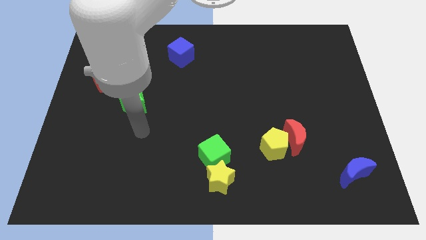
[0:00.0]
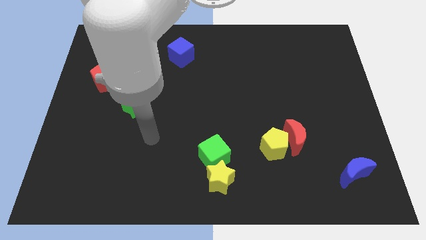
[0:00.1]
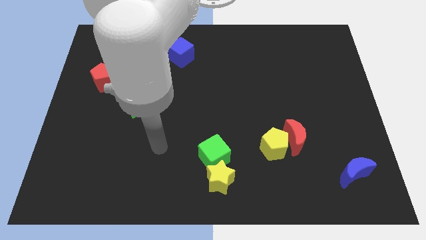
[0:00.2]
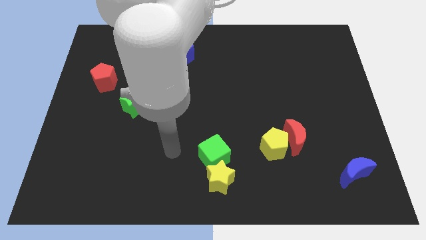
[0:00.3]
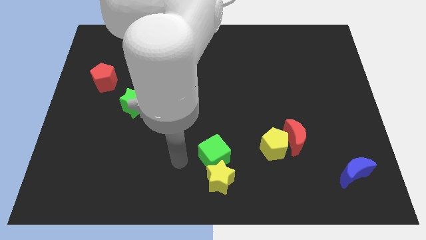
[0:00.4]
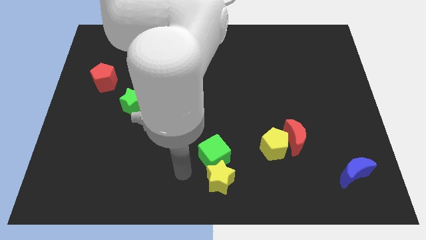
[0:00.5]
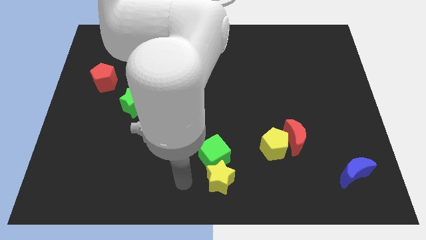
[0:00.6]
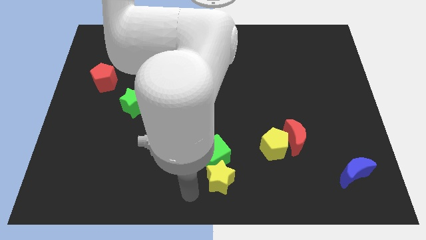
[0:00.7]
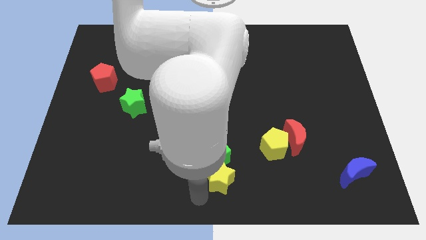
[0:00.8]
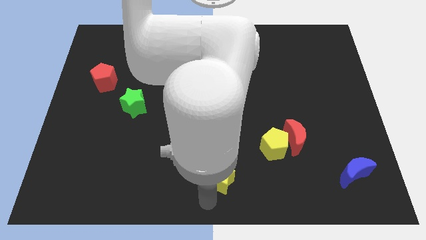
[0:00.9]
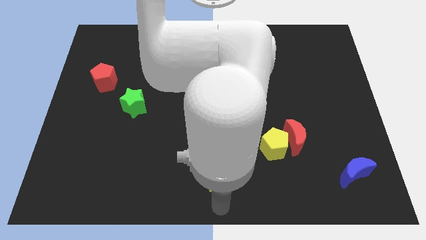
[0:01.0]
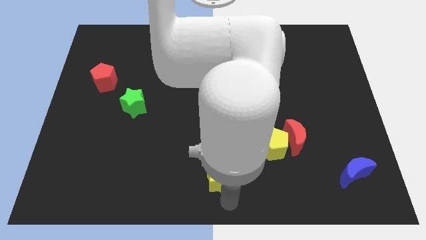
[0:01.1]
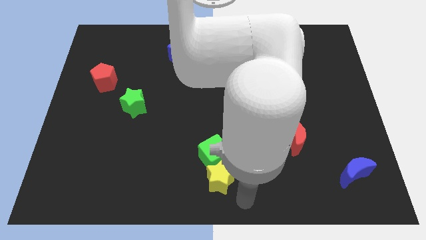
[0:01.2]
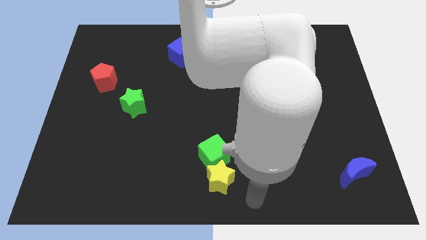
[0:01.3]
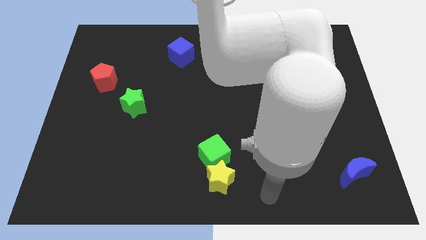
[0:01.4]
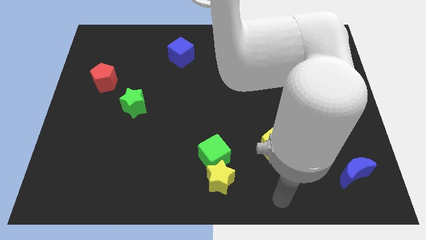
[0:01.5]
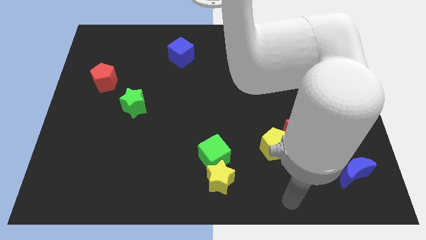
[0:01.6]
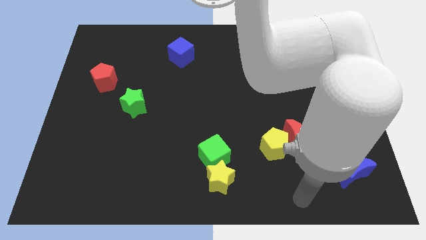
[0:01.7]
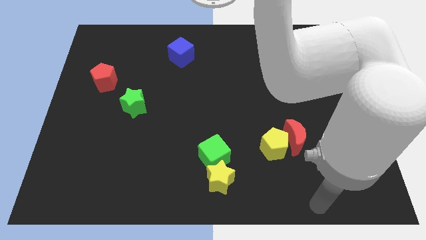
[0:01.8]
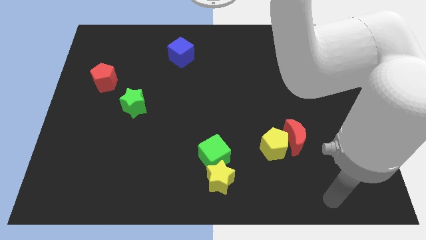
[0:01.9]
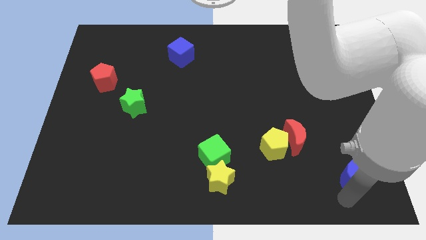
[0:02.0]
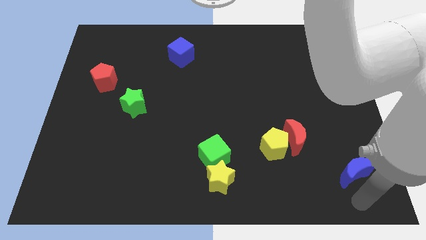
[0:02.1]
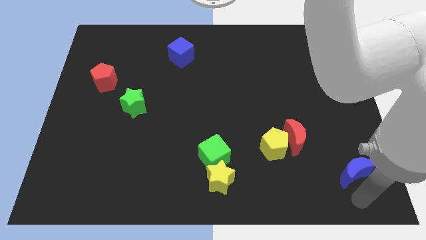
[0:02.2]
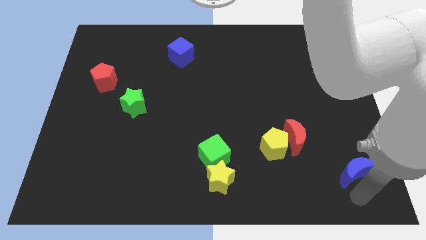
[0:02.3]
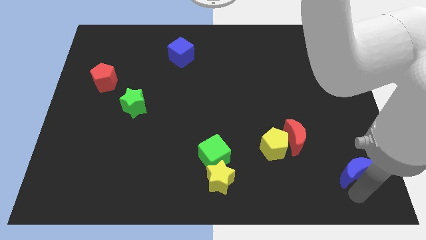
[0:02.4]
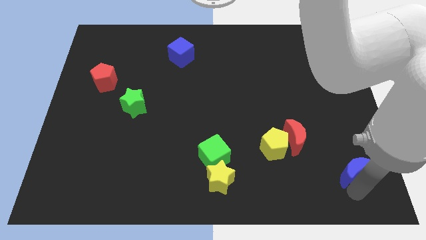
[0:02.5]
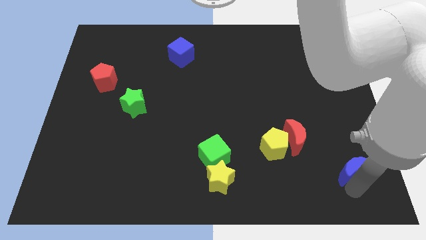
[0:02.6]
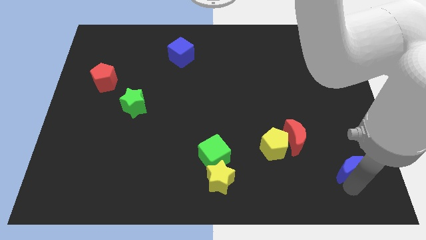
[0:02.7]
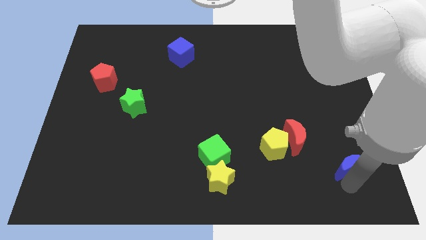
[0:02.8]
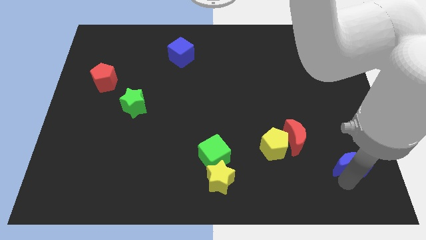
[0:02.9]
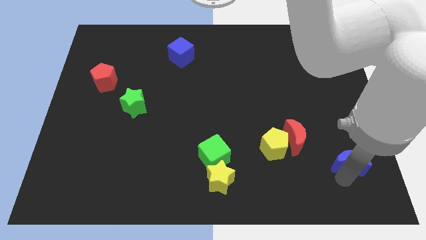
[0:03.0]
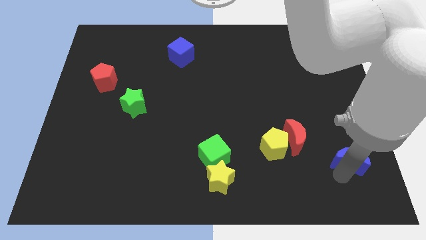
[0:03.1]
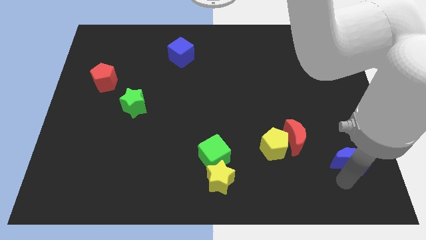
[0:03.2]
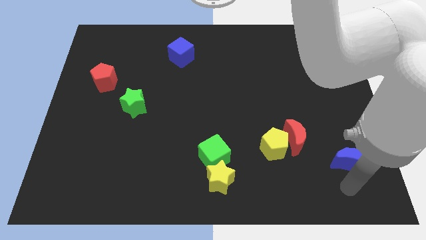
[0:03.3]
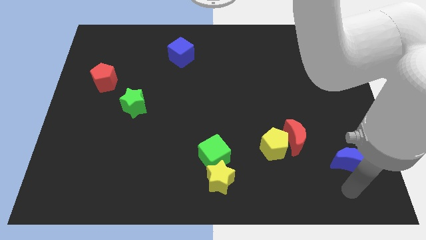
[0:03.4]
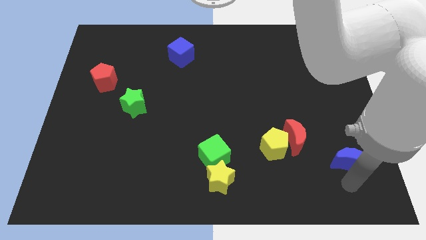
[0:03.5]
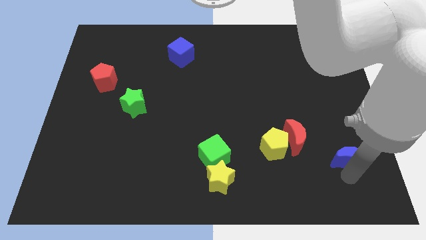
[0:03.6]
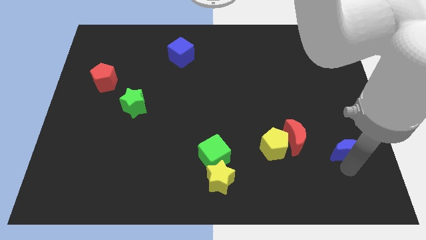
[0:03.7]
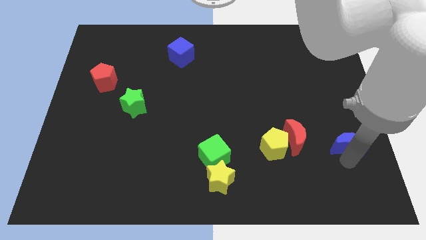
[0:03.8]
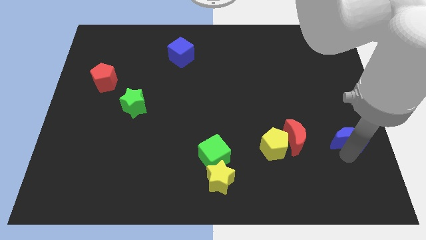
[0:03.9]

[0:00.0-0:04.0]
slide the blue moon a little upwards

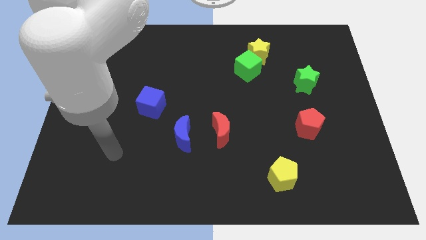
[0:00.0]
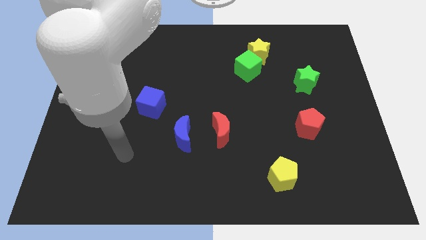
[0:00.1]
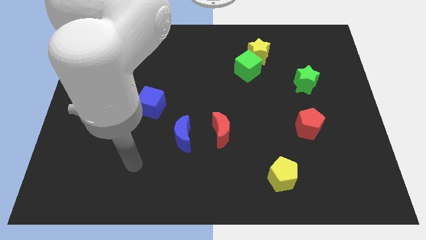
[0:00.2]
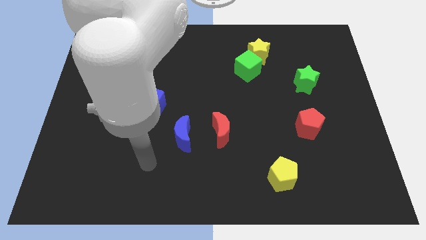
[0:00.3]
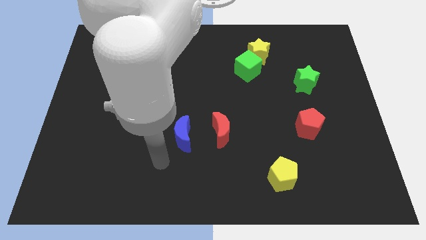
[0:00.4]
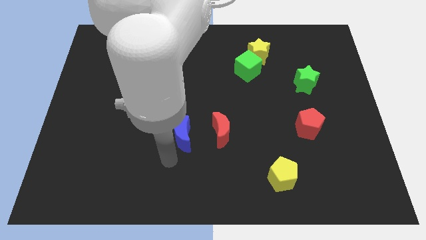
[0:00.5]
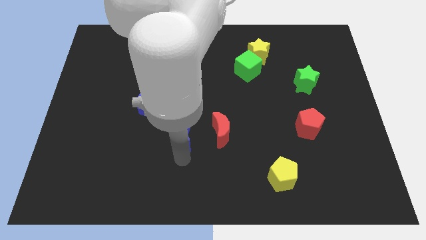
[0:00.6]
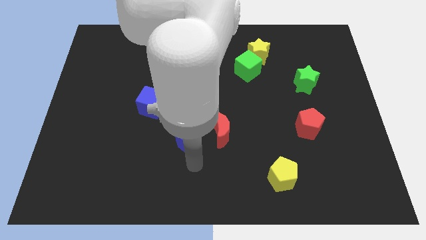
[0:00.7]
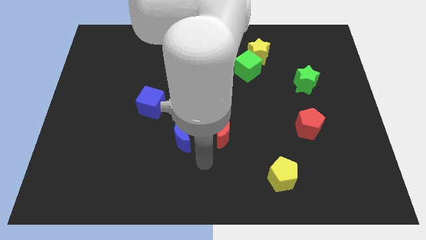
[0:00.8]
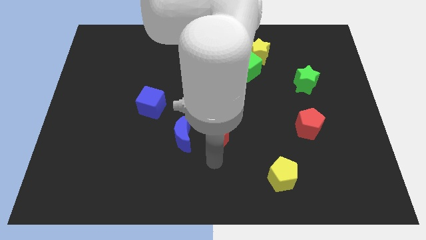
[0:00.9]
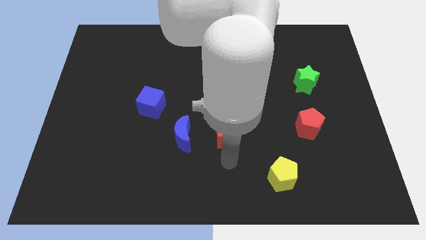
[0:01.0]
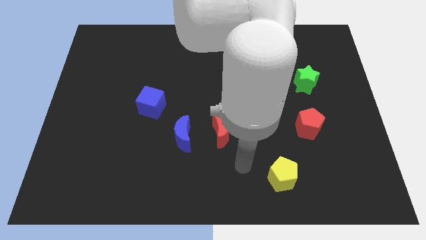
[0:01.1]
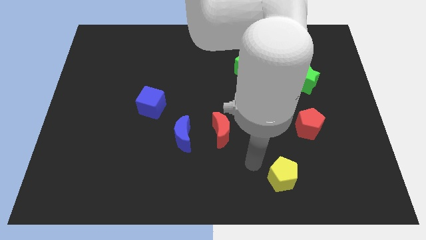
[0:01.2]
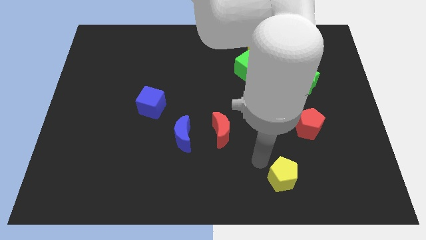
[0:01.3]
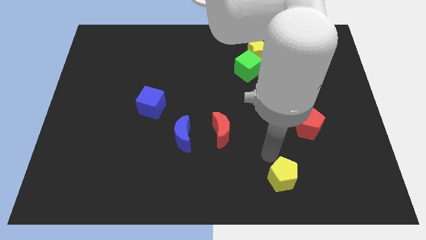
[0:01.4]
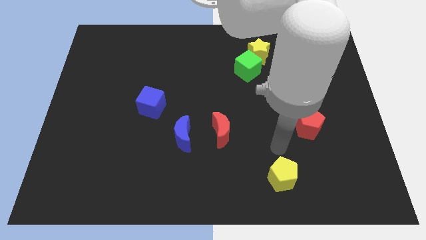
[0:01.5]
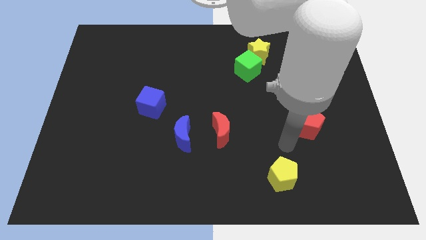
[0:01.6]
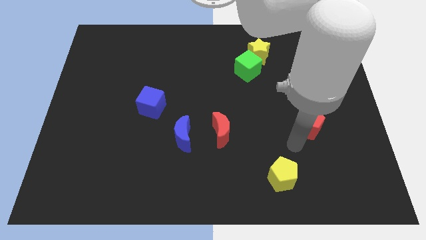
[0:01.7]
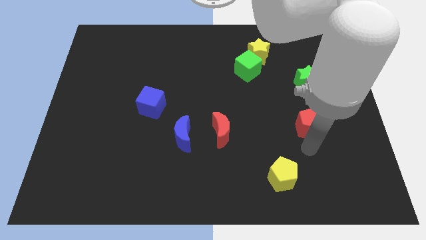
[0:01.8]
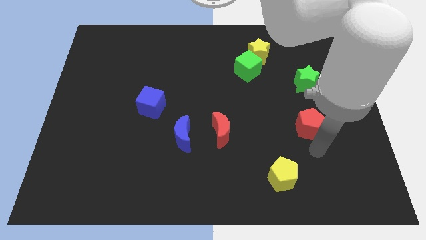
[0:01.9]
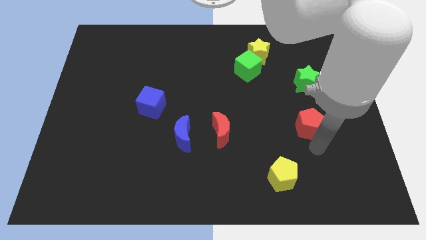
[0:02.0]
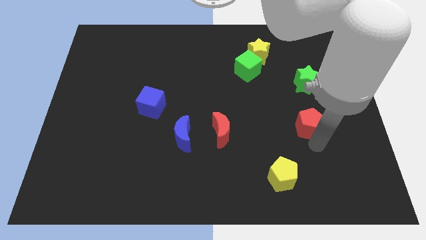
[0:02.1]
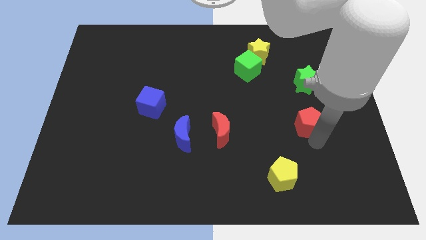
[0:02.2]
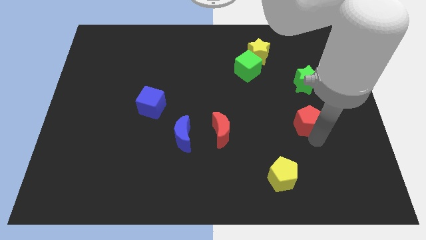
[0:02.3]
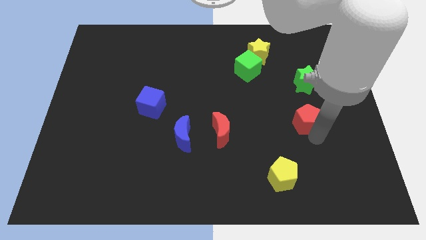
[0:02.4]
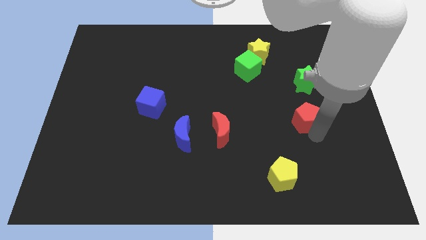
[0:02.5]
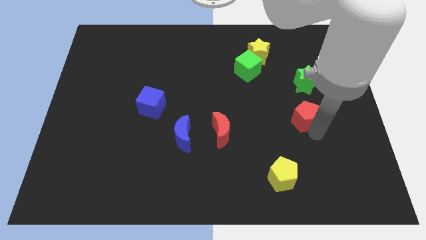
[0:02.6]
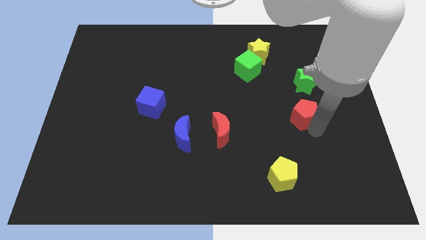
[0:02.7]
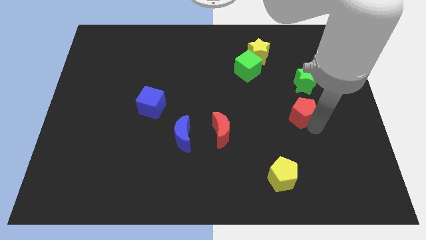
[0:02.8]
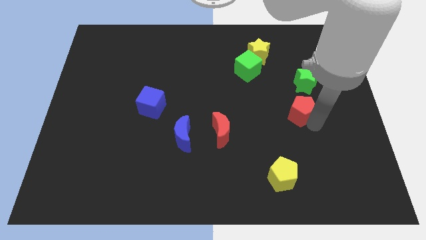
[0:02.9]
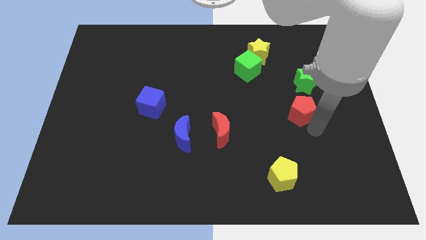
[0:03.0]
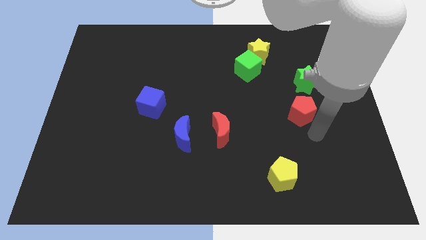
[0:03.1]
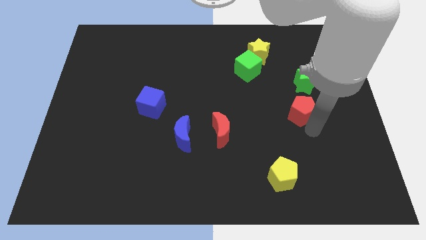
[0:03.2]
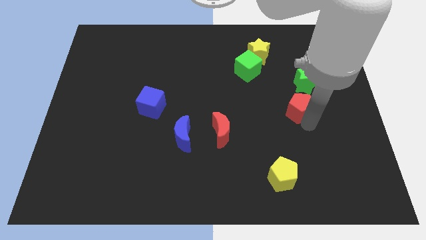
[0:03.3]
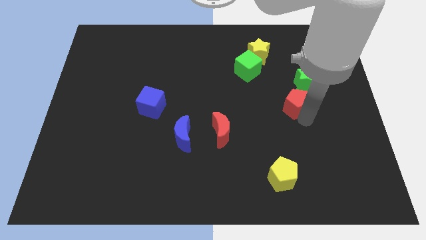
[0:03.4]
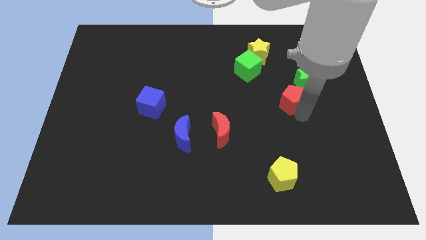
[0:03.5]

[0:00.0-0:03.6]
push the red pentagon upwards a bit

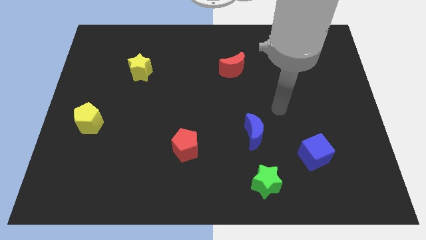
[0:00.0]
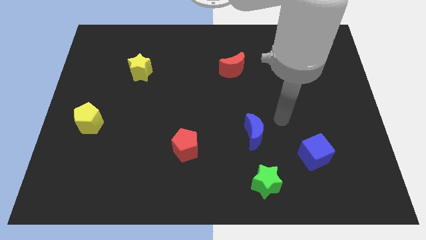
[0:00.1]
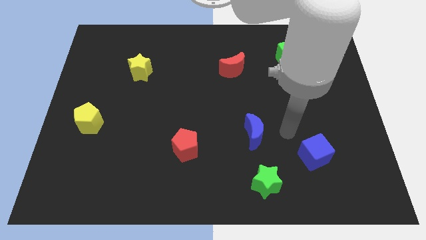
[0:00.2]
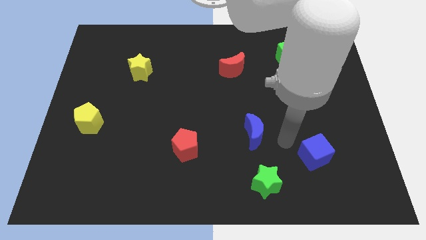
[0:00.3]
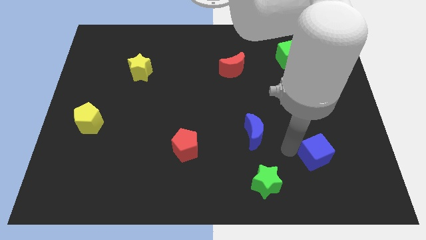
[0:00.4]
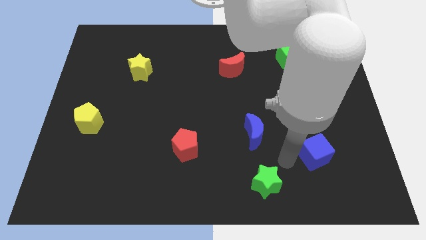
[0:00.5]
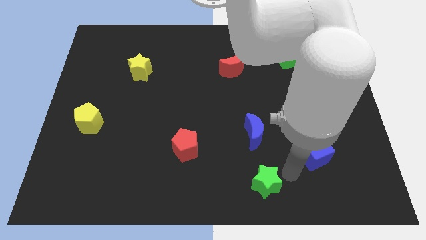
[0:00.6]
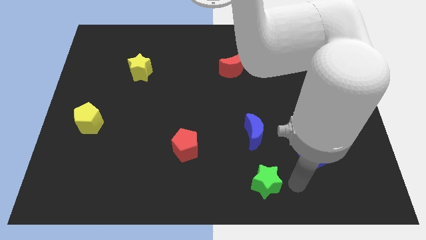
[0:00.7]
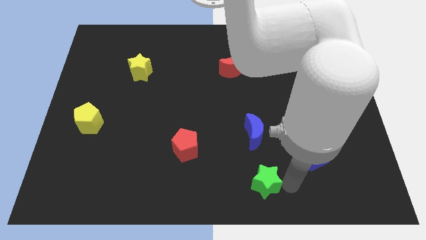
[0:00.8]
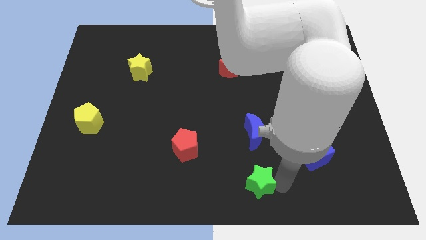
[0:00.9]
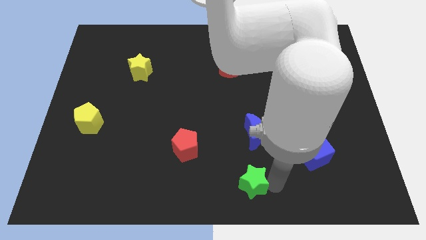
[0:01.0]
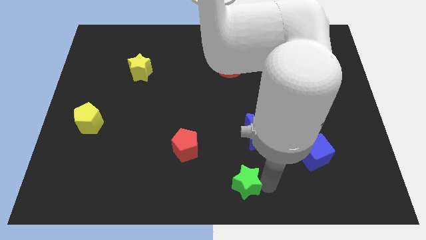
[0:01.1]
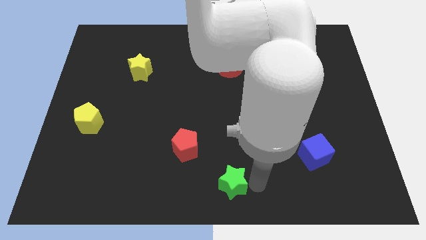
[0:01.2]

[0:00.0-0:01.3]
slide the green star to the left slightly
